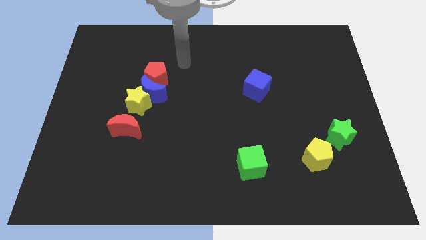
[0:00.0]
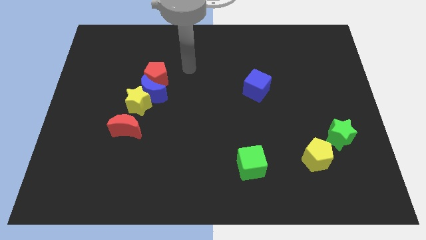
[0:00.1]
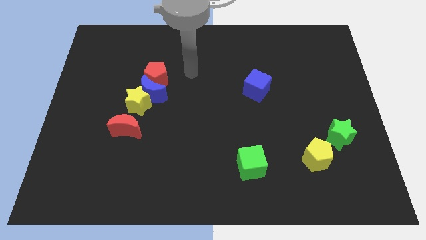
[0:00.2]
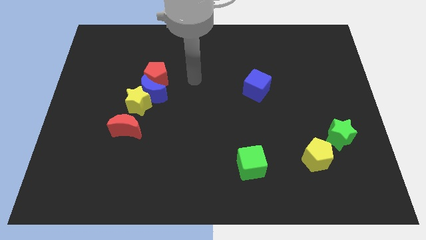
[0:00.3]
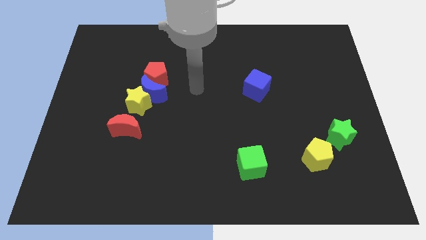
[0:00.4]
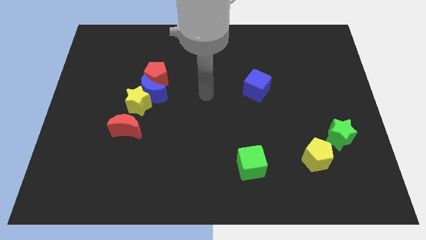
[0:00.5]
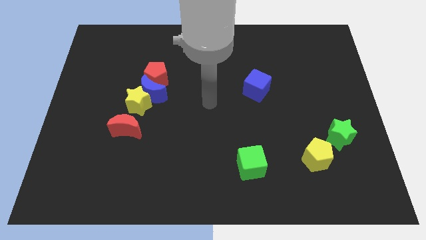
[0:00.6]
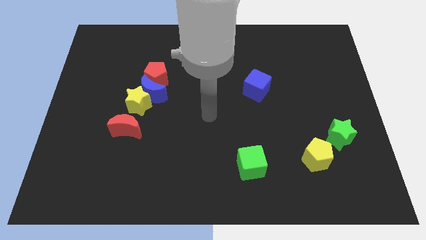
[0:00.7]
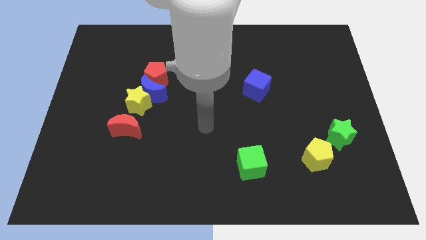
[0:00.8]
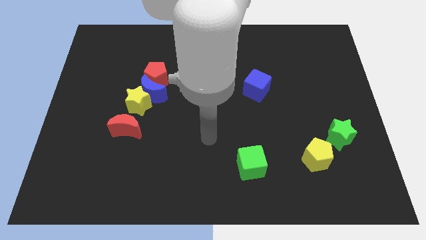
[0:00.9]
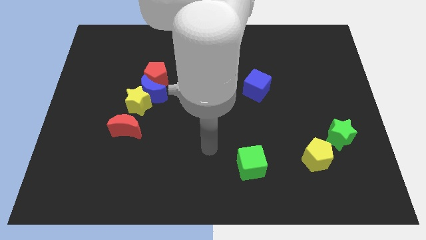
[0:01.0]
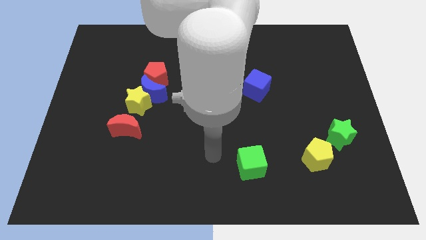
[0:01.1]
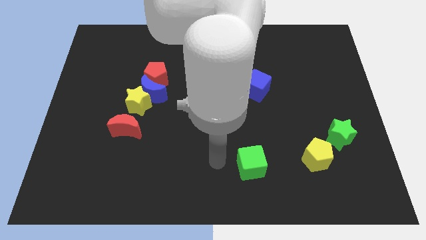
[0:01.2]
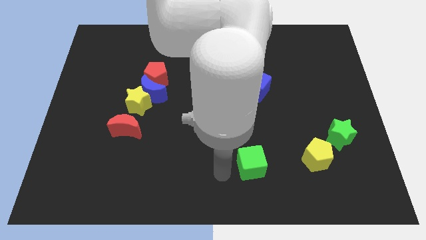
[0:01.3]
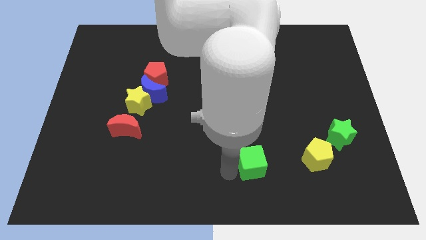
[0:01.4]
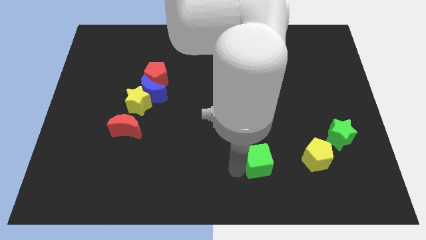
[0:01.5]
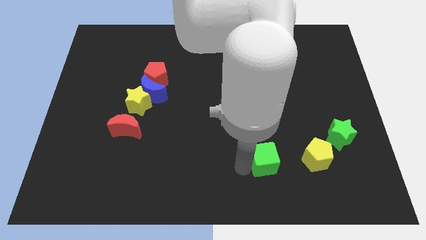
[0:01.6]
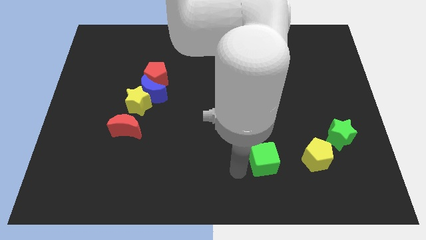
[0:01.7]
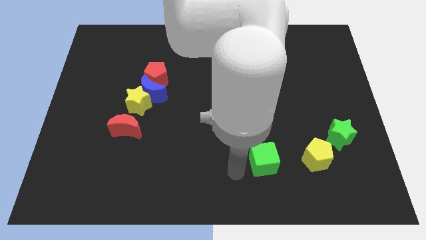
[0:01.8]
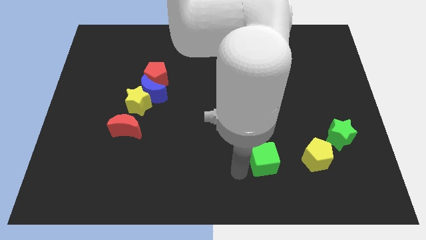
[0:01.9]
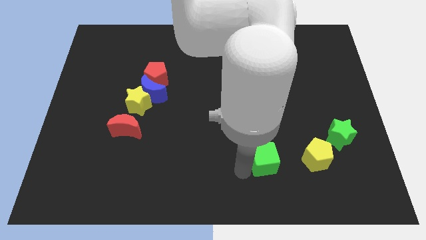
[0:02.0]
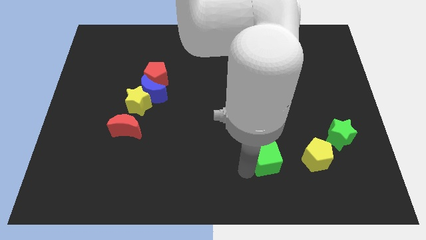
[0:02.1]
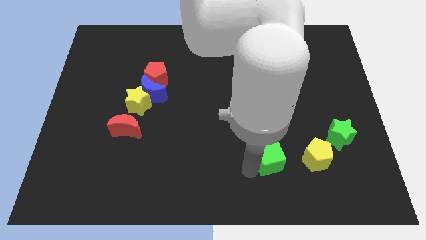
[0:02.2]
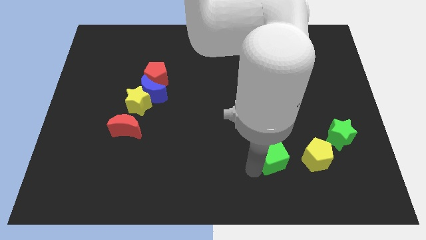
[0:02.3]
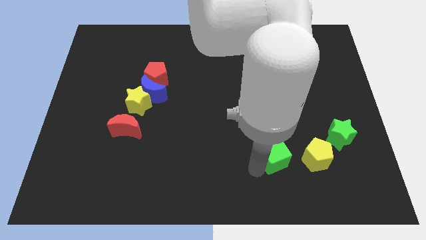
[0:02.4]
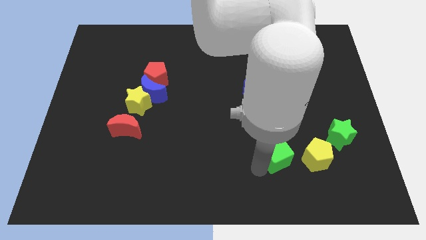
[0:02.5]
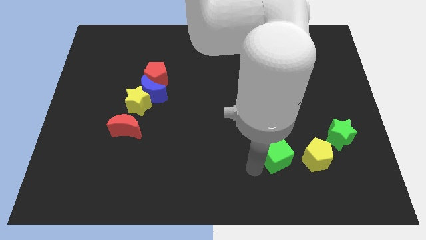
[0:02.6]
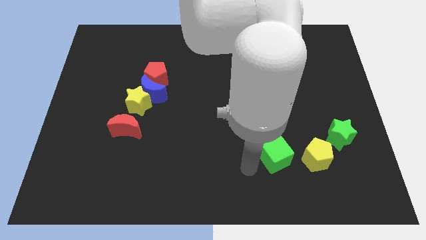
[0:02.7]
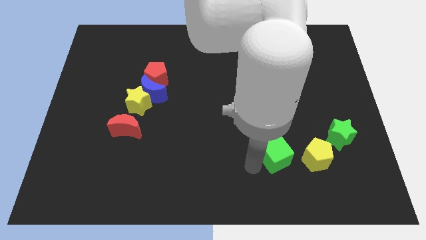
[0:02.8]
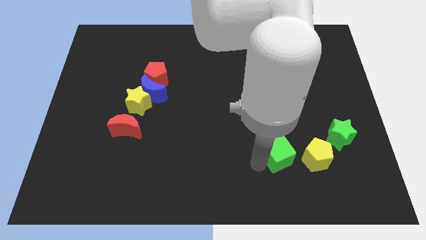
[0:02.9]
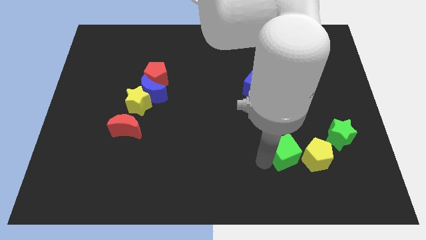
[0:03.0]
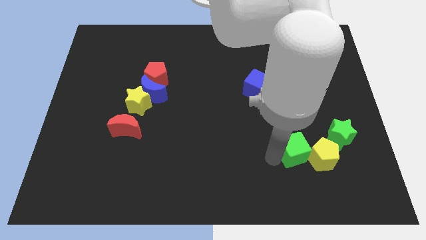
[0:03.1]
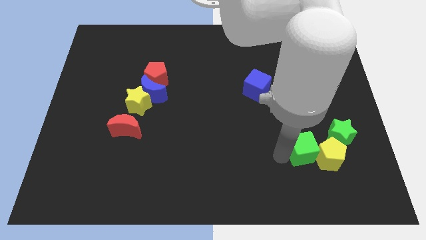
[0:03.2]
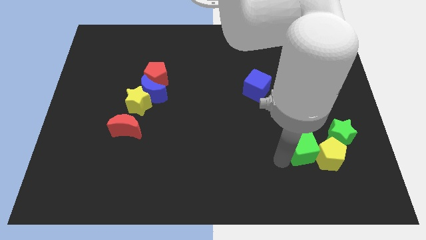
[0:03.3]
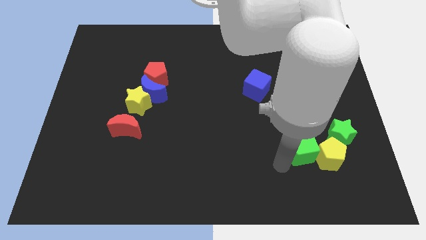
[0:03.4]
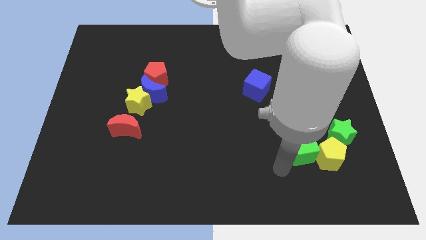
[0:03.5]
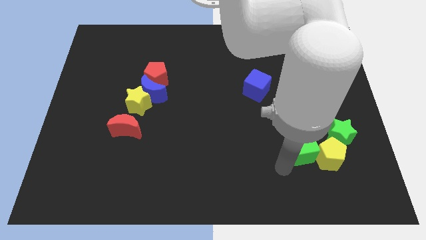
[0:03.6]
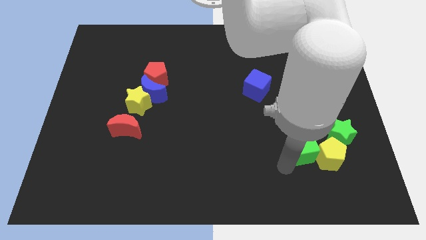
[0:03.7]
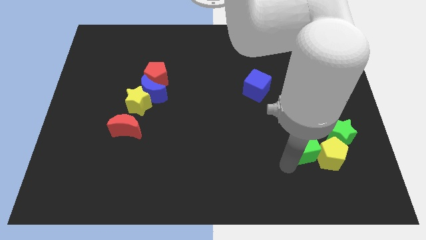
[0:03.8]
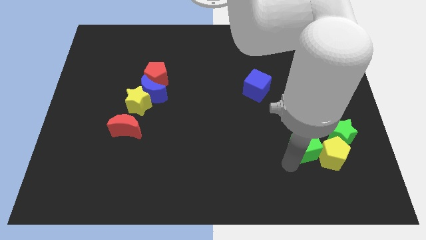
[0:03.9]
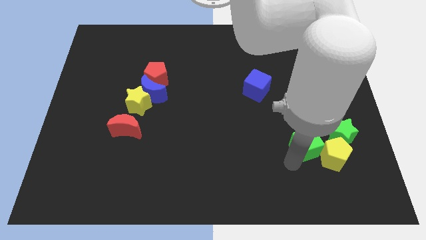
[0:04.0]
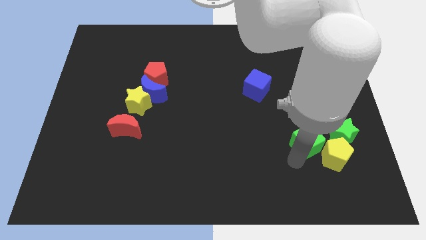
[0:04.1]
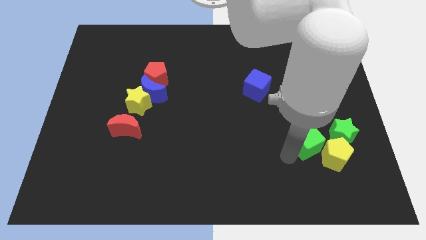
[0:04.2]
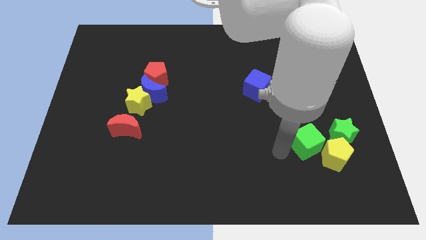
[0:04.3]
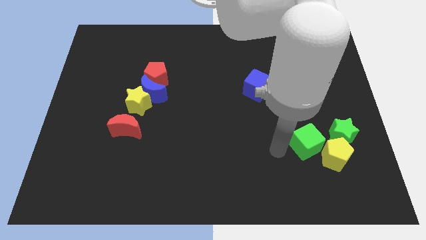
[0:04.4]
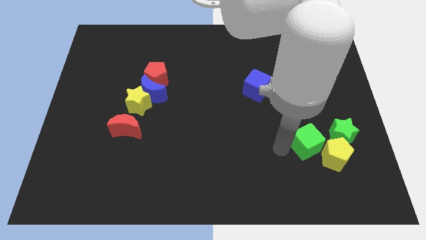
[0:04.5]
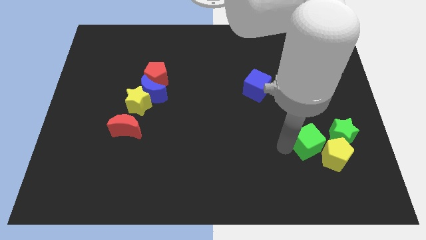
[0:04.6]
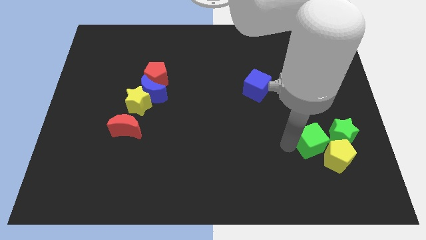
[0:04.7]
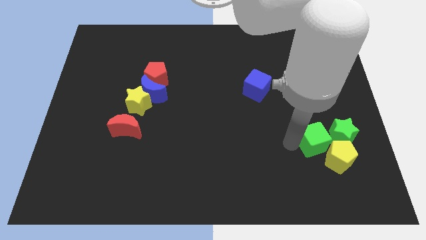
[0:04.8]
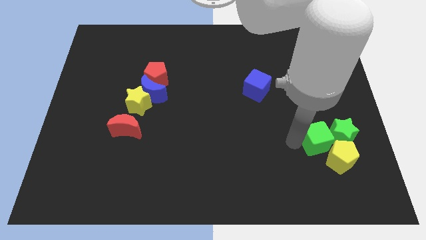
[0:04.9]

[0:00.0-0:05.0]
push the green cube close to the green star

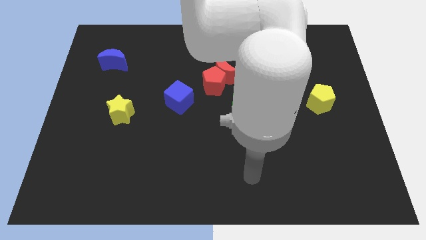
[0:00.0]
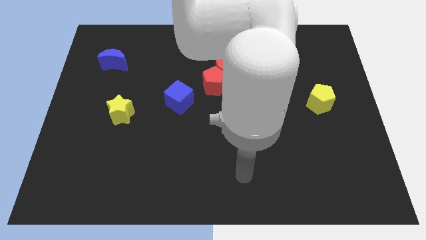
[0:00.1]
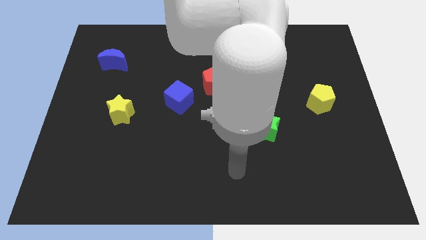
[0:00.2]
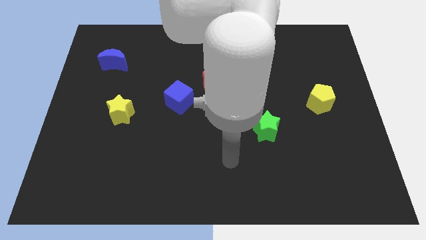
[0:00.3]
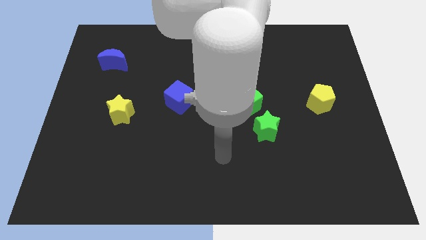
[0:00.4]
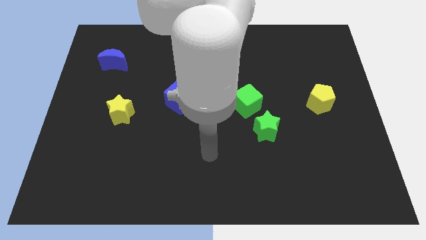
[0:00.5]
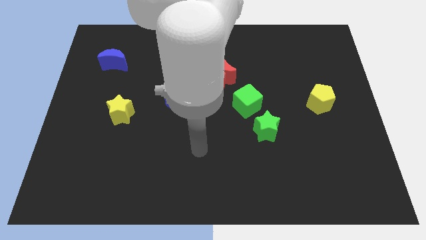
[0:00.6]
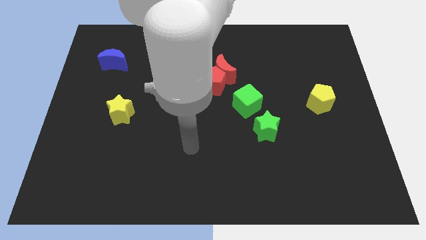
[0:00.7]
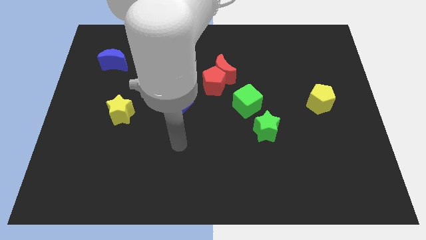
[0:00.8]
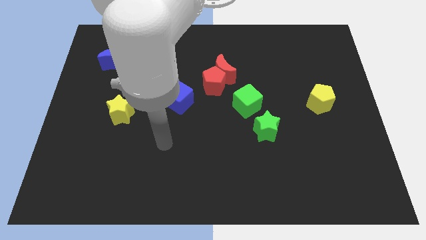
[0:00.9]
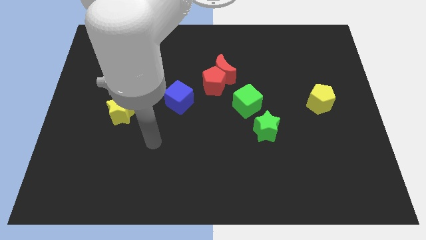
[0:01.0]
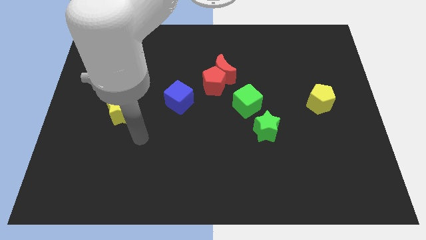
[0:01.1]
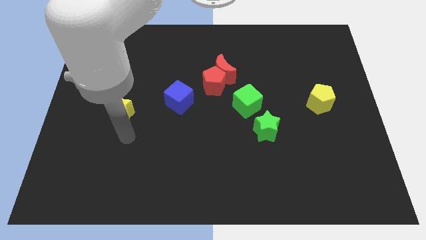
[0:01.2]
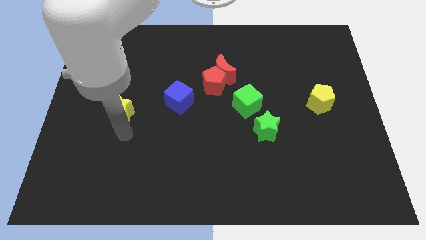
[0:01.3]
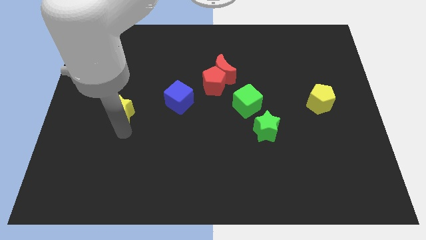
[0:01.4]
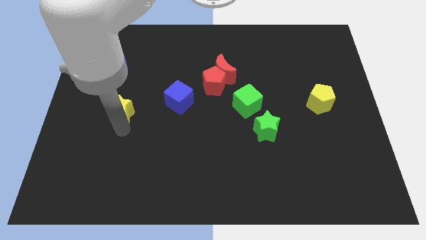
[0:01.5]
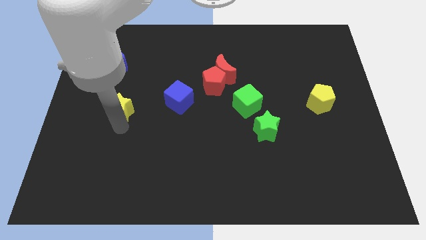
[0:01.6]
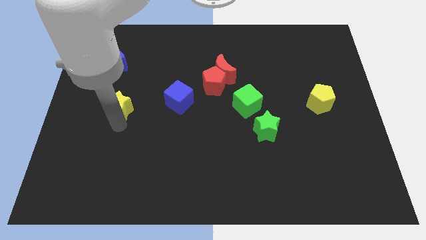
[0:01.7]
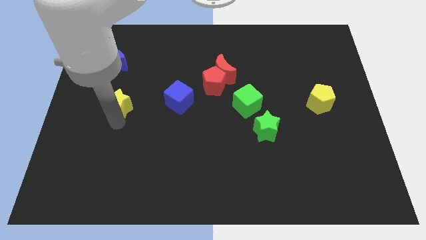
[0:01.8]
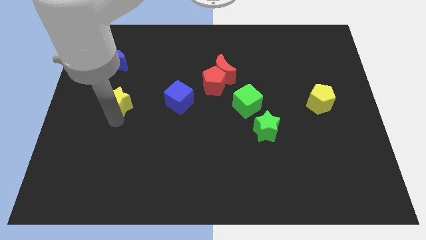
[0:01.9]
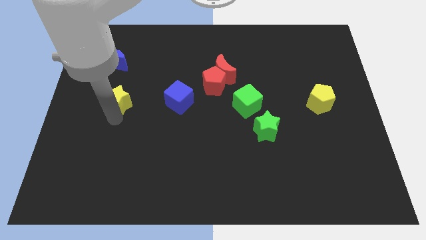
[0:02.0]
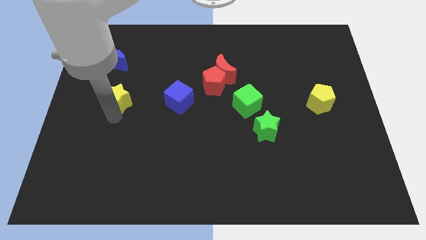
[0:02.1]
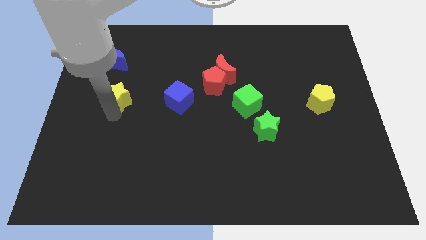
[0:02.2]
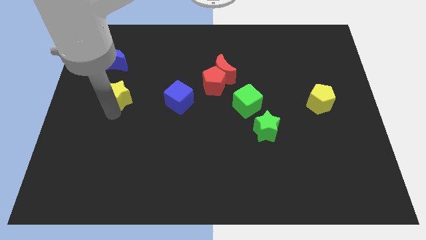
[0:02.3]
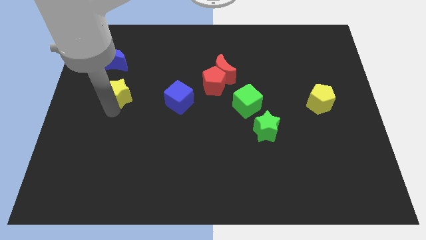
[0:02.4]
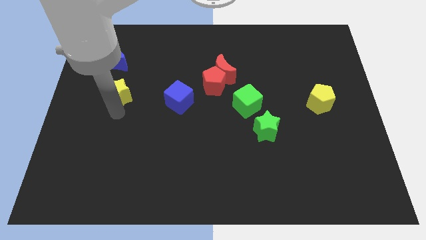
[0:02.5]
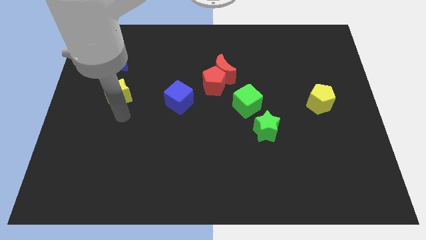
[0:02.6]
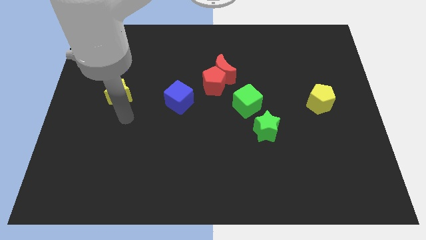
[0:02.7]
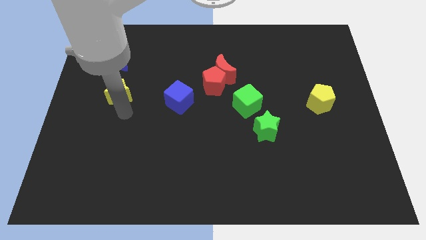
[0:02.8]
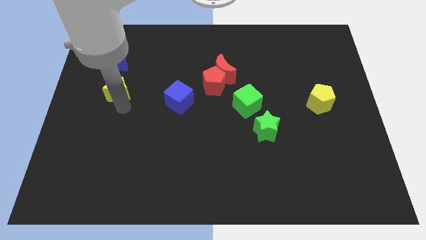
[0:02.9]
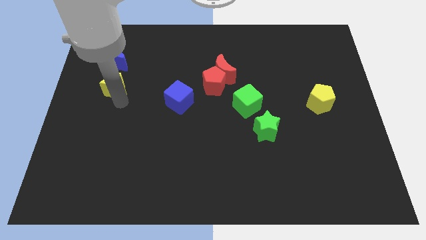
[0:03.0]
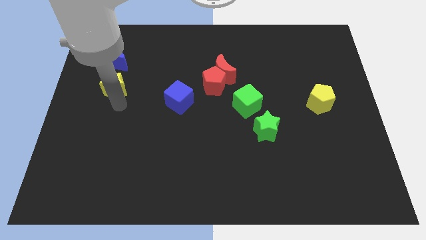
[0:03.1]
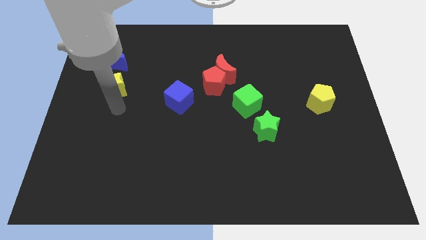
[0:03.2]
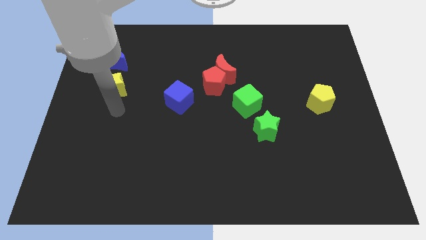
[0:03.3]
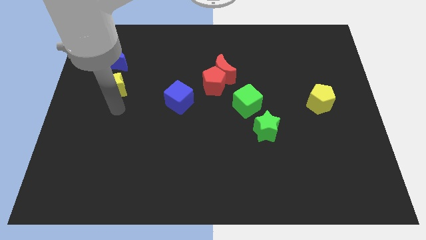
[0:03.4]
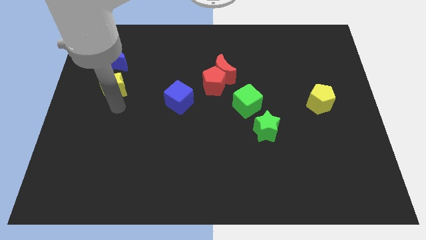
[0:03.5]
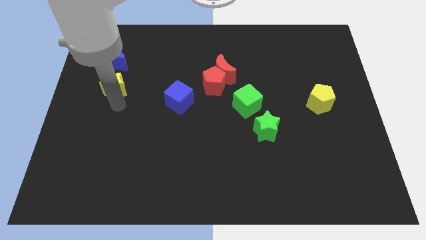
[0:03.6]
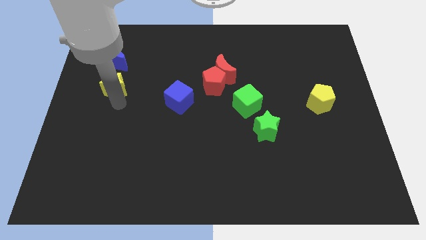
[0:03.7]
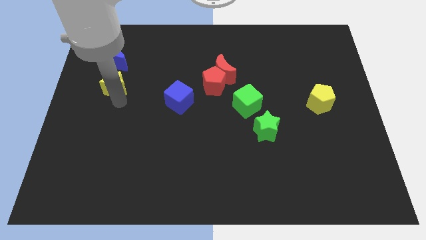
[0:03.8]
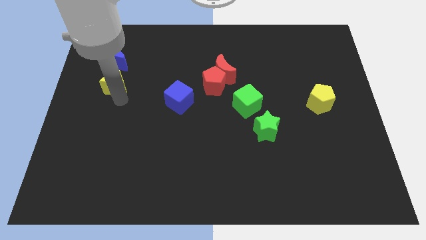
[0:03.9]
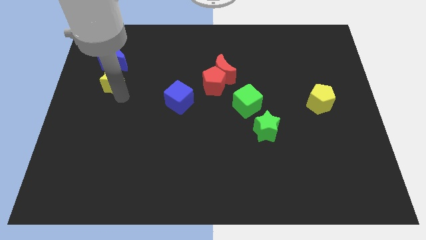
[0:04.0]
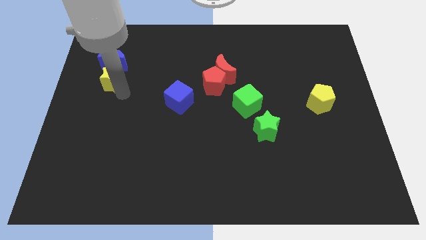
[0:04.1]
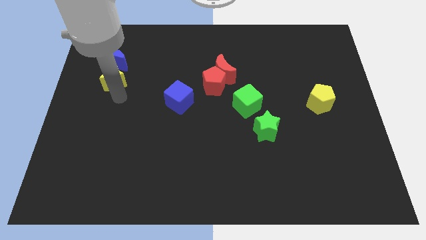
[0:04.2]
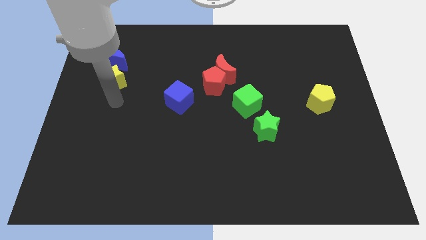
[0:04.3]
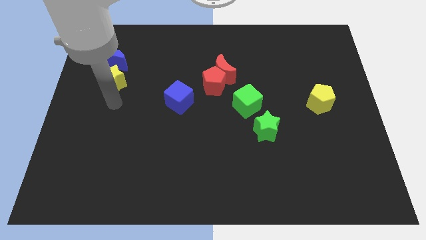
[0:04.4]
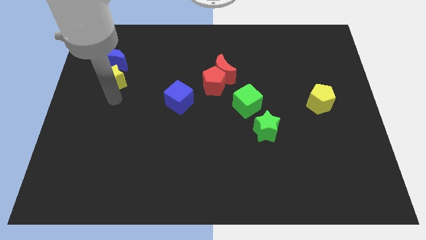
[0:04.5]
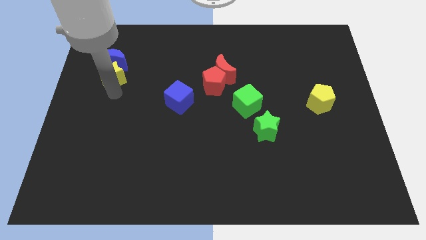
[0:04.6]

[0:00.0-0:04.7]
put the yellow star next to the blue moon
